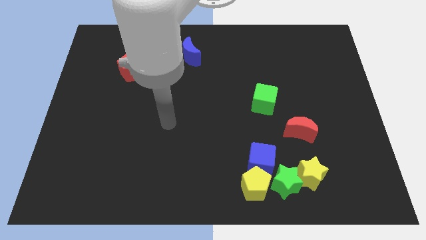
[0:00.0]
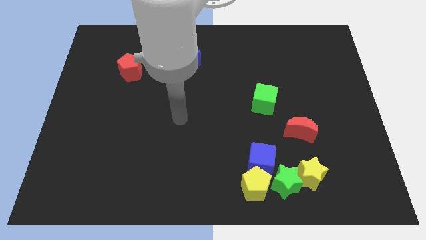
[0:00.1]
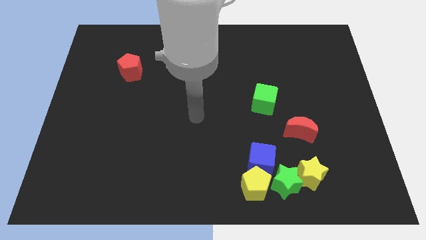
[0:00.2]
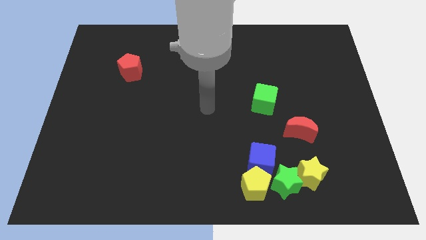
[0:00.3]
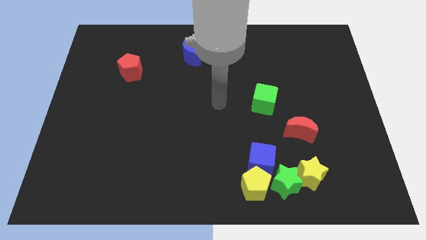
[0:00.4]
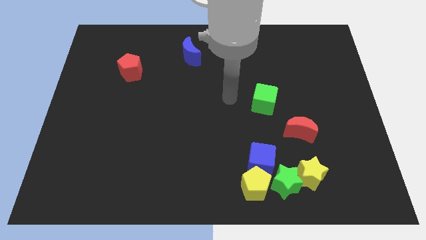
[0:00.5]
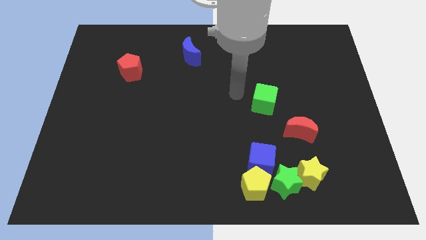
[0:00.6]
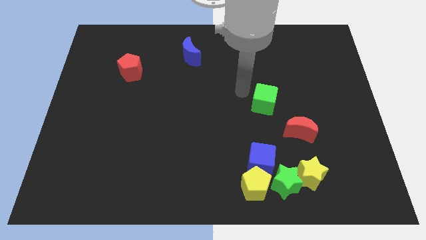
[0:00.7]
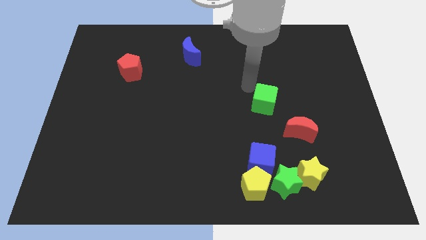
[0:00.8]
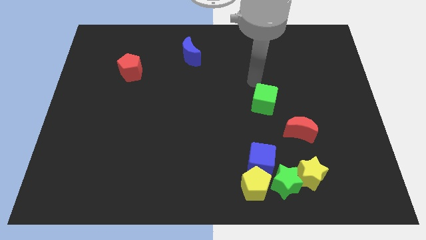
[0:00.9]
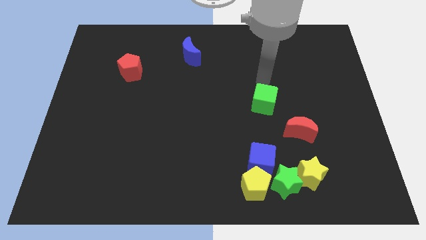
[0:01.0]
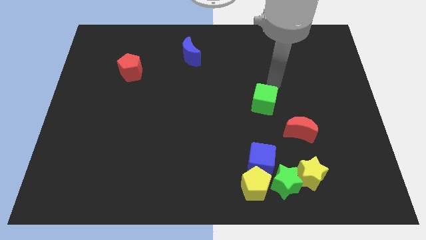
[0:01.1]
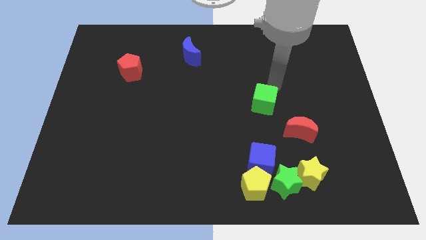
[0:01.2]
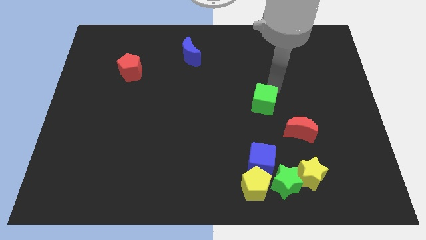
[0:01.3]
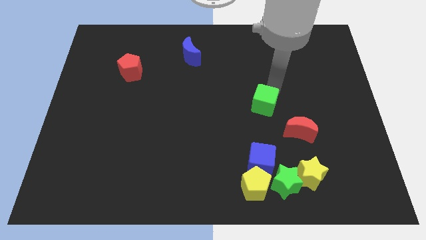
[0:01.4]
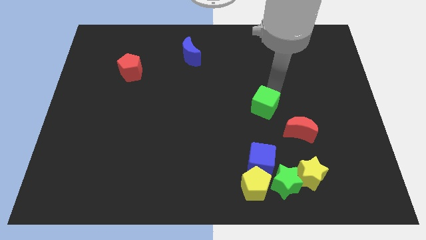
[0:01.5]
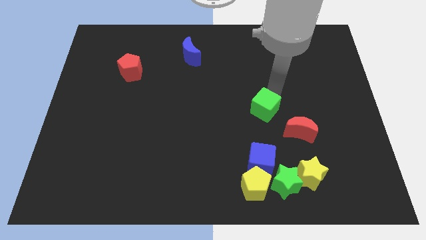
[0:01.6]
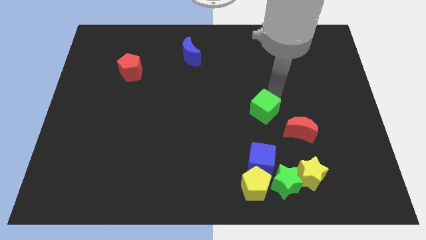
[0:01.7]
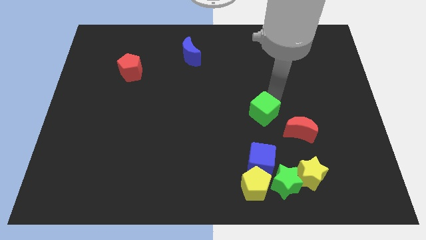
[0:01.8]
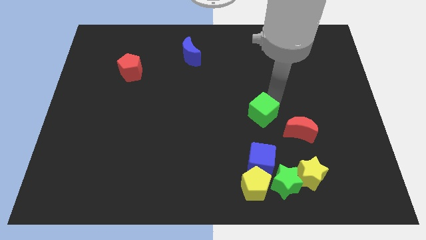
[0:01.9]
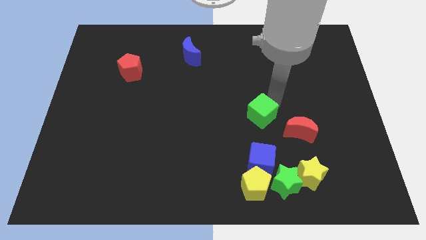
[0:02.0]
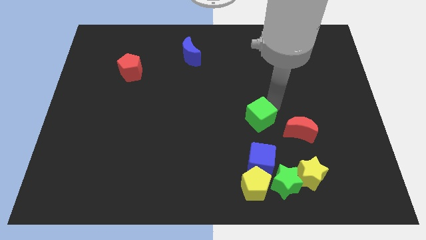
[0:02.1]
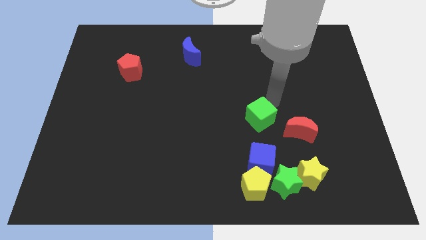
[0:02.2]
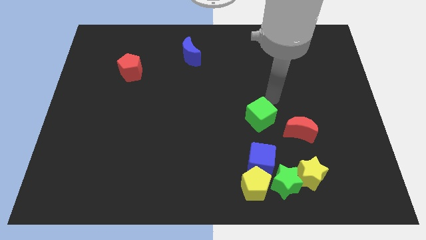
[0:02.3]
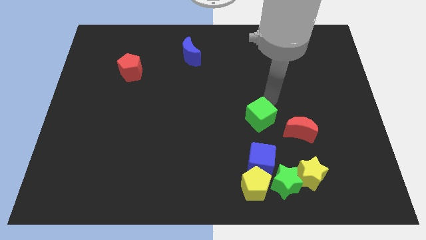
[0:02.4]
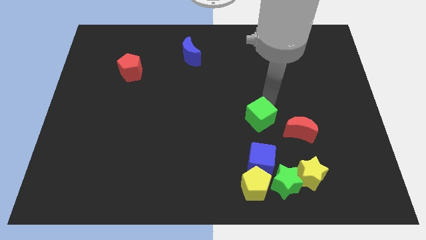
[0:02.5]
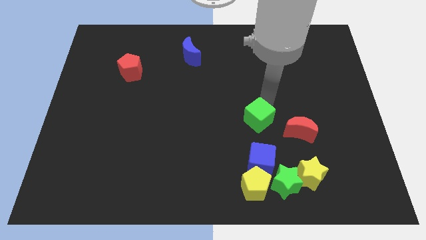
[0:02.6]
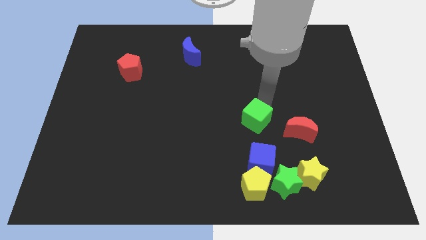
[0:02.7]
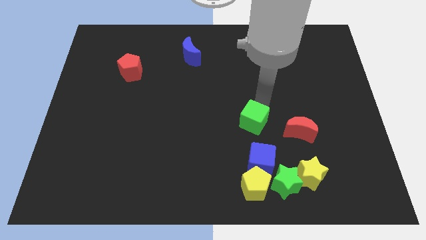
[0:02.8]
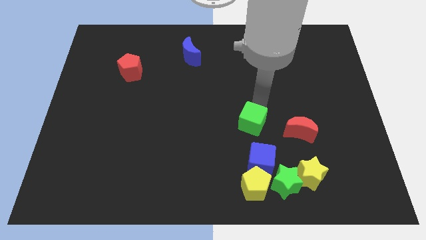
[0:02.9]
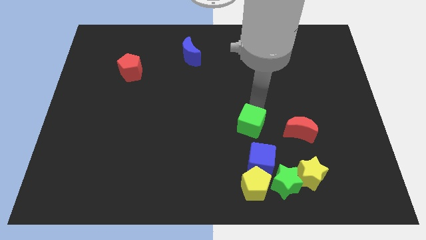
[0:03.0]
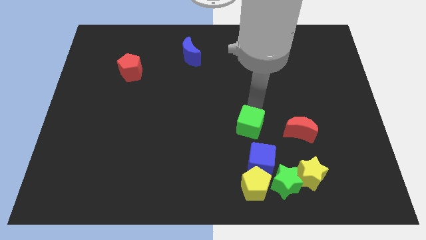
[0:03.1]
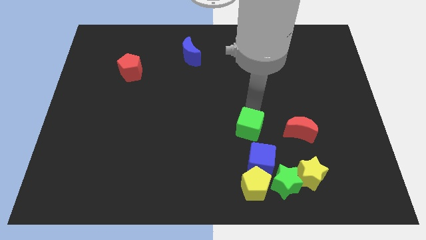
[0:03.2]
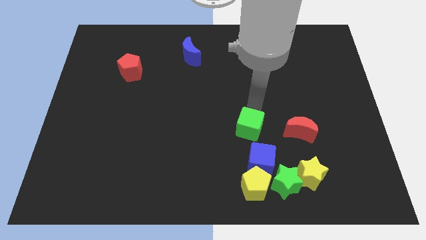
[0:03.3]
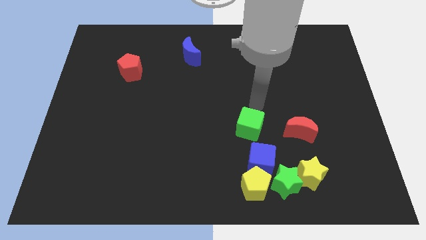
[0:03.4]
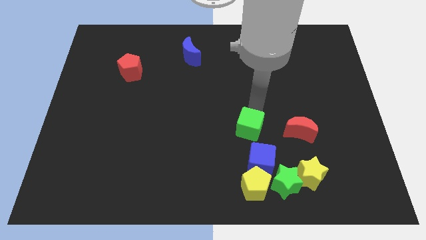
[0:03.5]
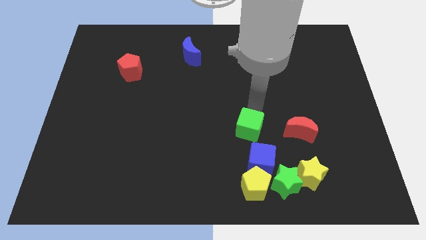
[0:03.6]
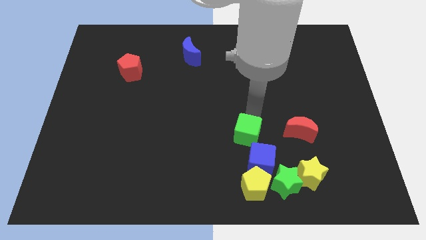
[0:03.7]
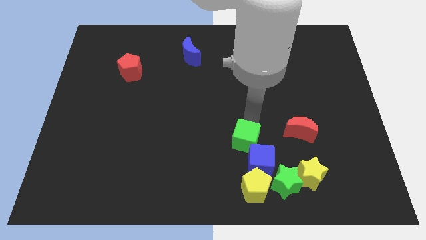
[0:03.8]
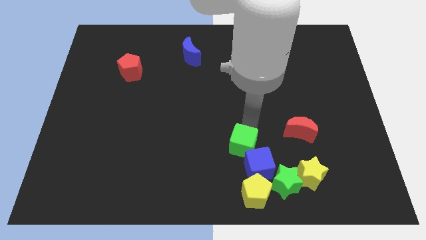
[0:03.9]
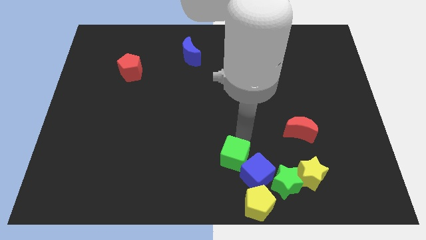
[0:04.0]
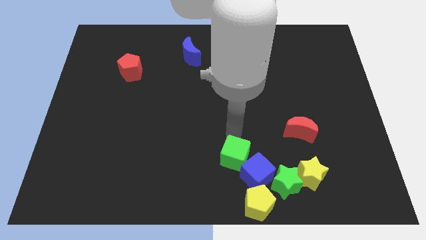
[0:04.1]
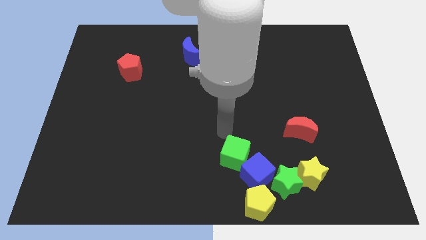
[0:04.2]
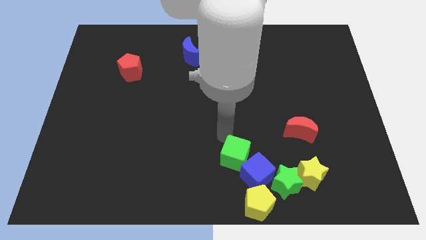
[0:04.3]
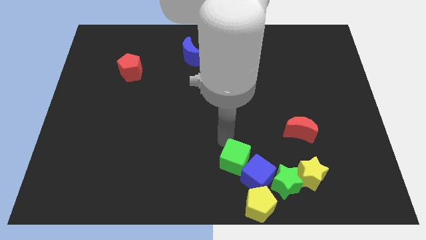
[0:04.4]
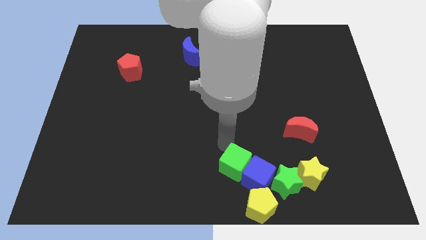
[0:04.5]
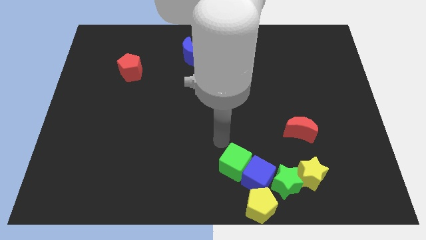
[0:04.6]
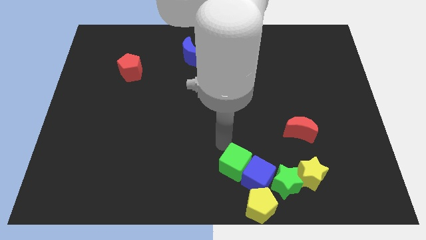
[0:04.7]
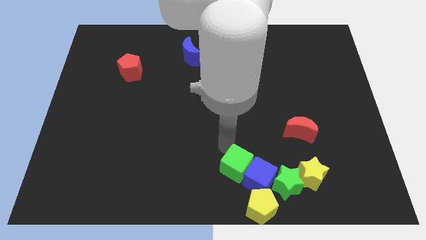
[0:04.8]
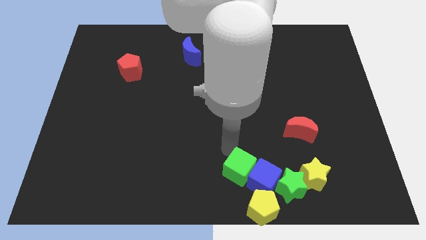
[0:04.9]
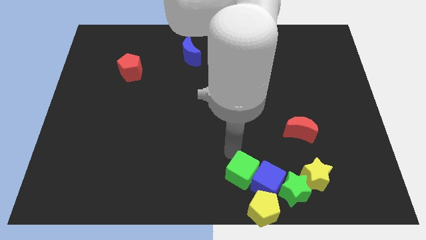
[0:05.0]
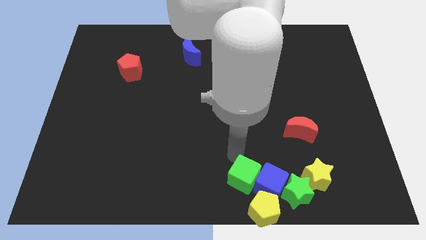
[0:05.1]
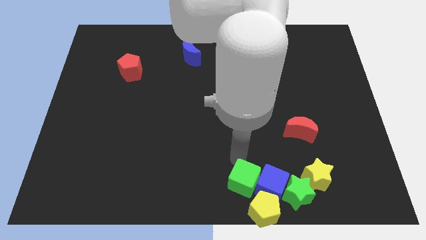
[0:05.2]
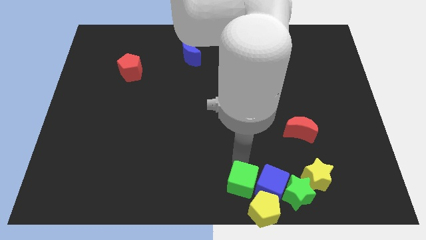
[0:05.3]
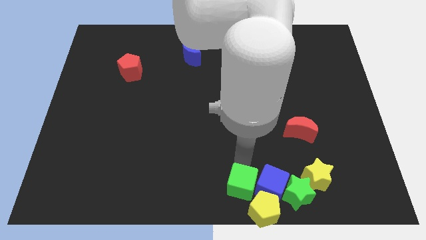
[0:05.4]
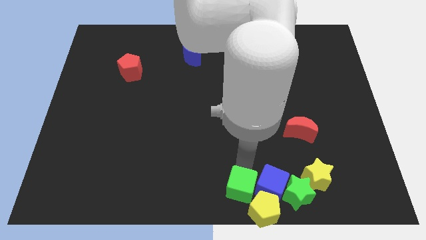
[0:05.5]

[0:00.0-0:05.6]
push the green cube to the yellow pentagon

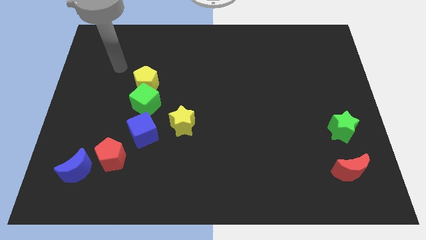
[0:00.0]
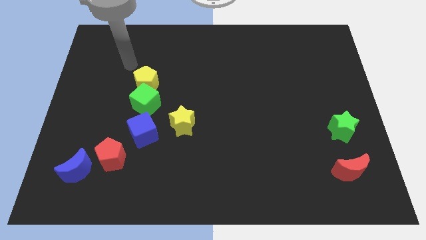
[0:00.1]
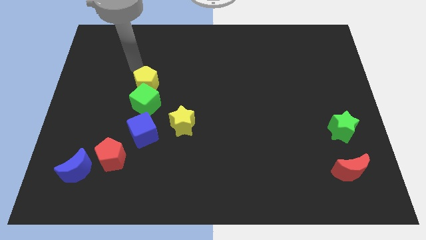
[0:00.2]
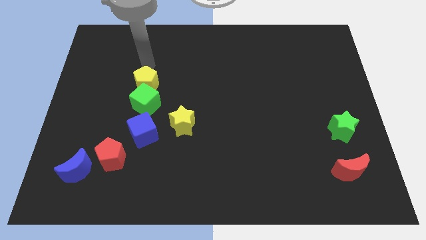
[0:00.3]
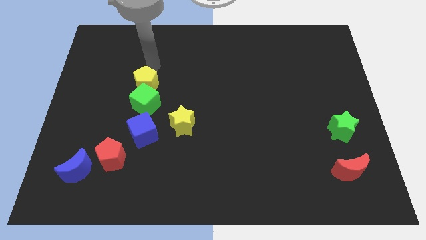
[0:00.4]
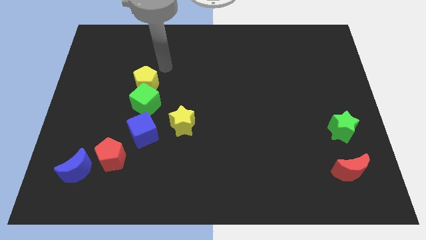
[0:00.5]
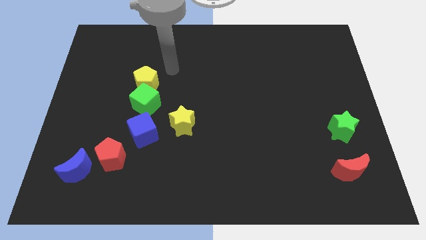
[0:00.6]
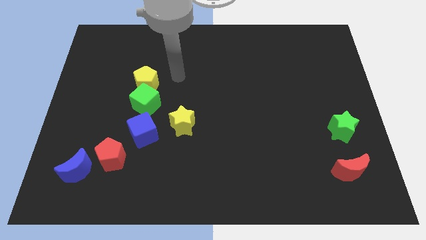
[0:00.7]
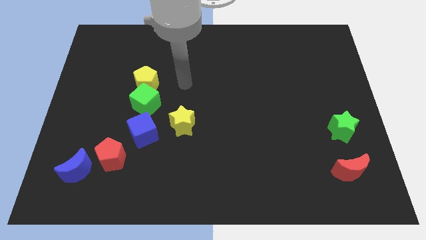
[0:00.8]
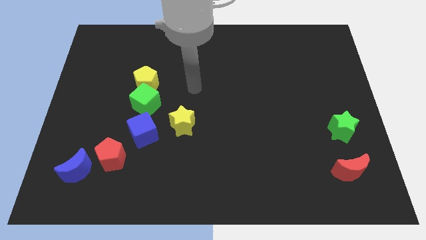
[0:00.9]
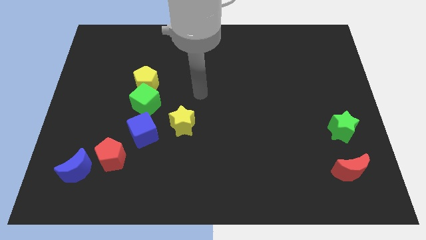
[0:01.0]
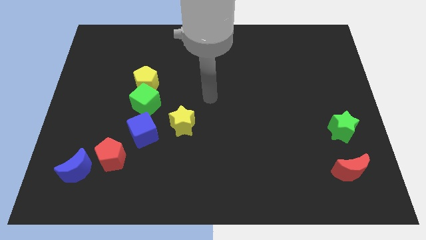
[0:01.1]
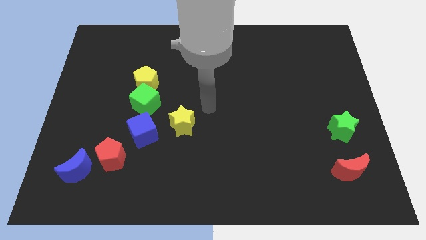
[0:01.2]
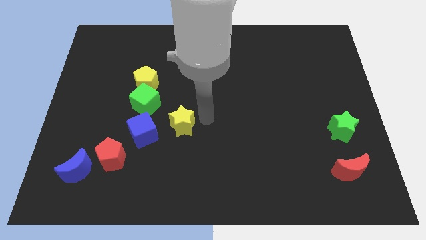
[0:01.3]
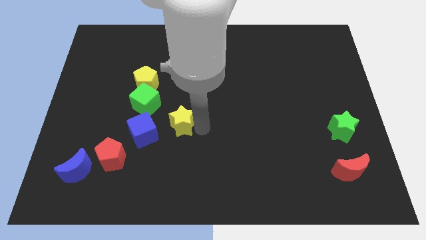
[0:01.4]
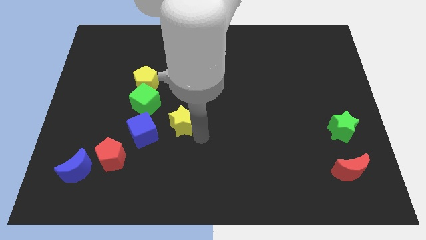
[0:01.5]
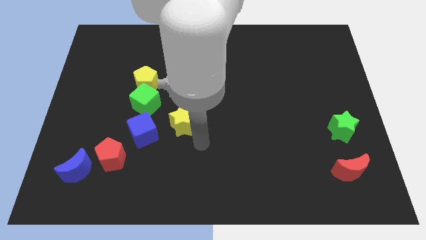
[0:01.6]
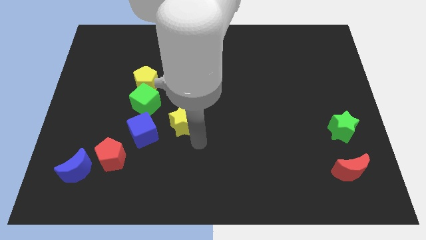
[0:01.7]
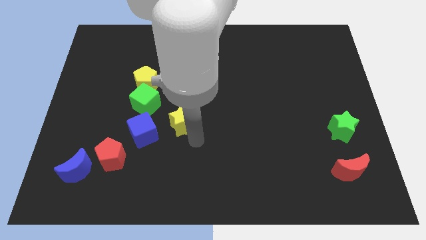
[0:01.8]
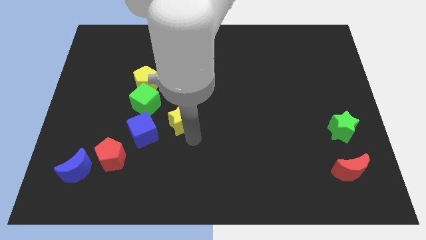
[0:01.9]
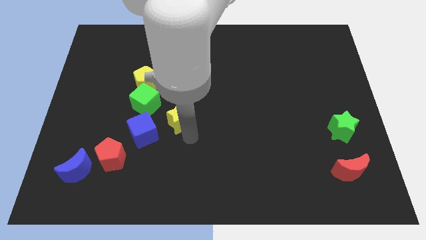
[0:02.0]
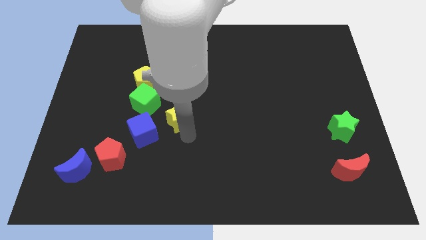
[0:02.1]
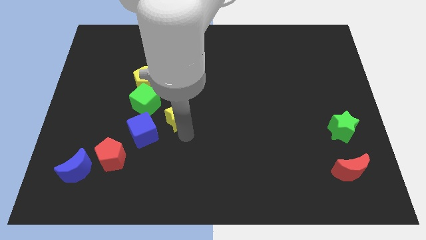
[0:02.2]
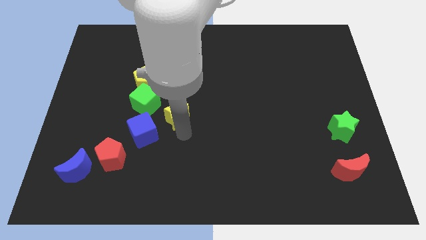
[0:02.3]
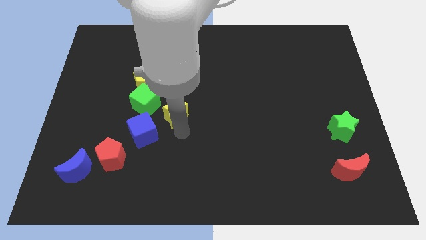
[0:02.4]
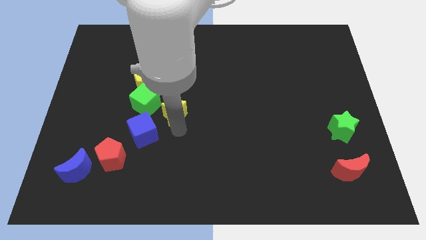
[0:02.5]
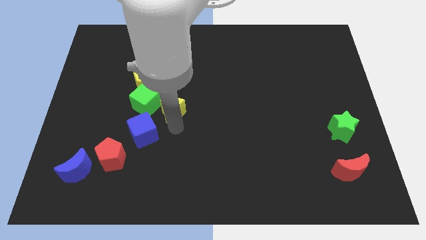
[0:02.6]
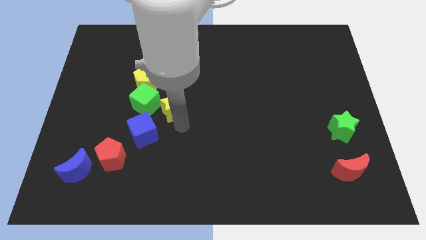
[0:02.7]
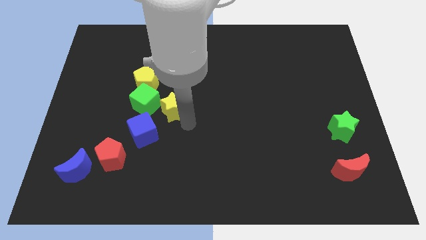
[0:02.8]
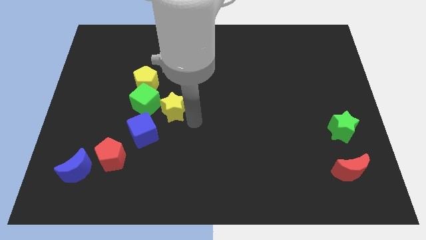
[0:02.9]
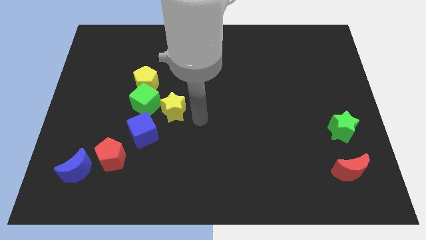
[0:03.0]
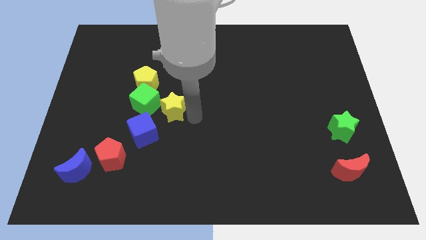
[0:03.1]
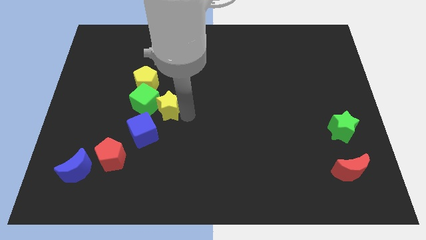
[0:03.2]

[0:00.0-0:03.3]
move the yellow star next to the green cube
